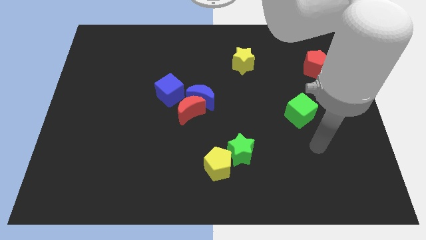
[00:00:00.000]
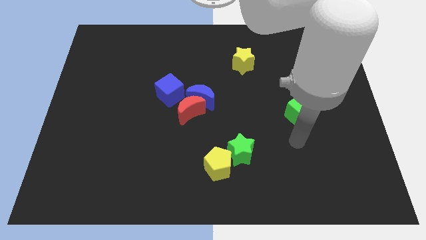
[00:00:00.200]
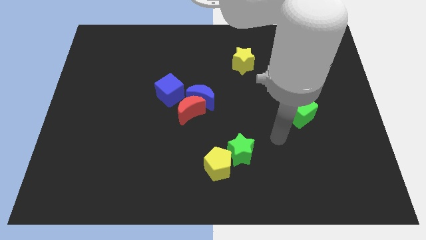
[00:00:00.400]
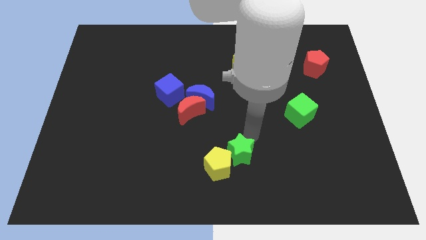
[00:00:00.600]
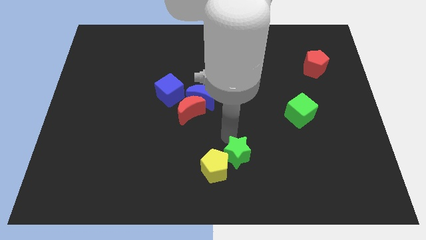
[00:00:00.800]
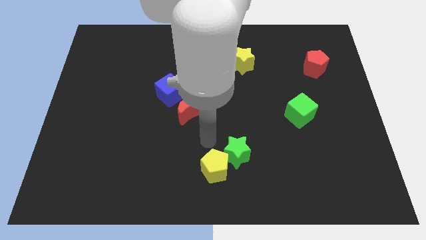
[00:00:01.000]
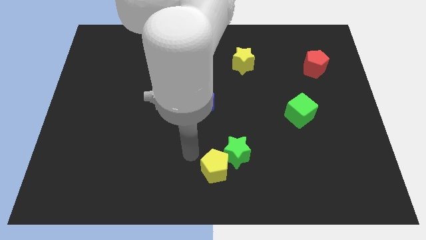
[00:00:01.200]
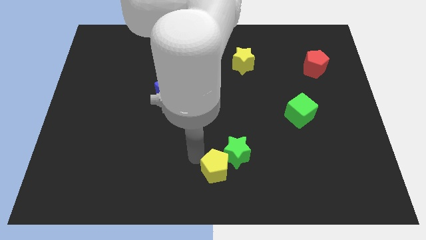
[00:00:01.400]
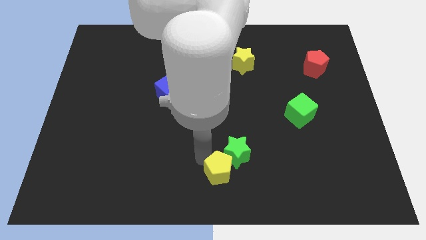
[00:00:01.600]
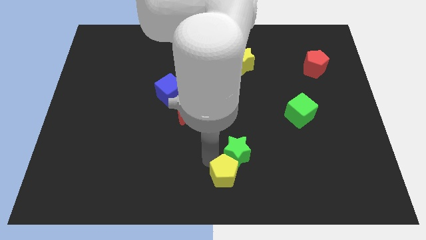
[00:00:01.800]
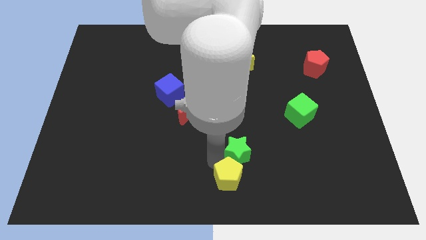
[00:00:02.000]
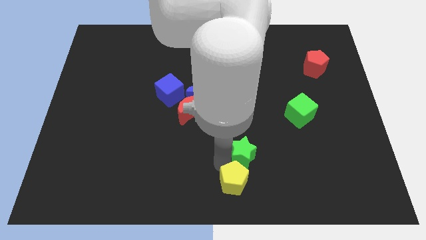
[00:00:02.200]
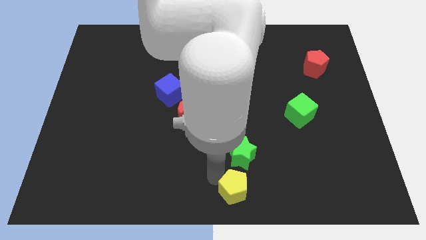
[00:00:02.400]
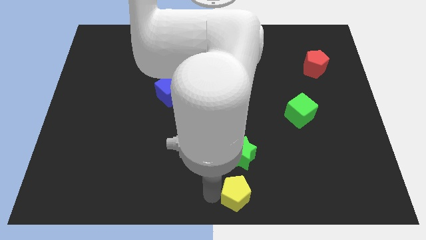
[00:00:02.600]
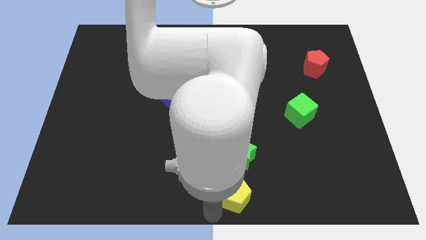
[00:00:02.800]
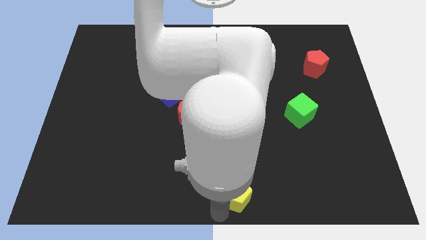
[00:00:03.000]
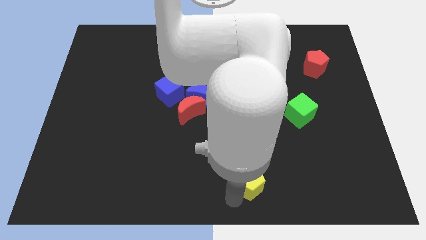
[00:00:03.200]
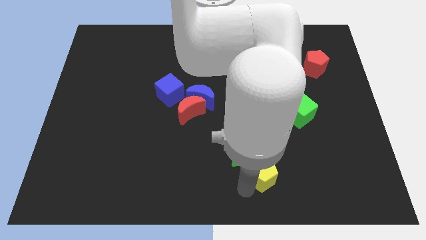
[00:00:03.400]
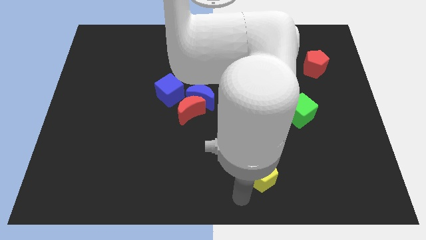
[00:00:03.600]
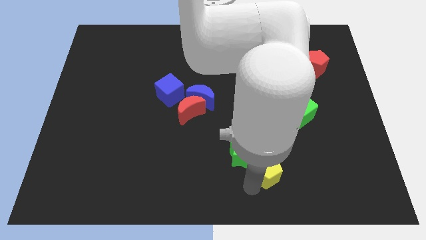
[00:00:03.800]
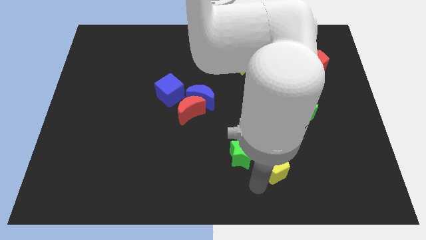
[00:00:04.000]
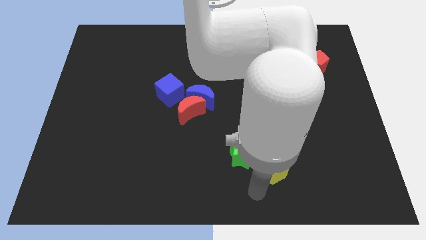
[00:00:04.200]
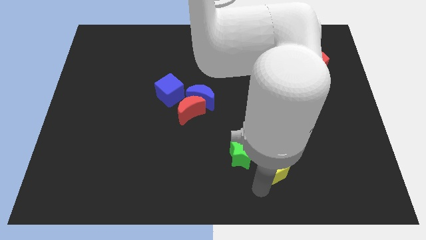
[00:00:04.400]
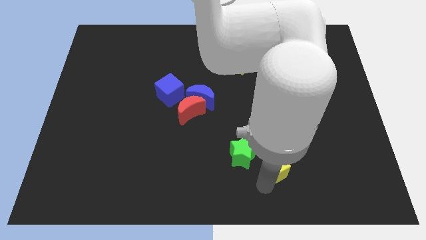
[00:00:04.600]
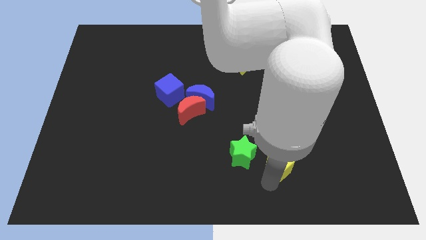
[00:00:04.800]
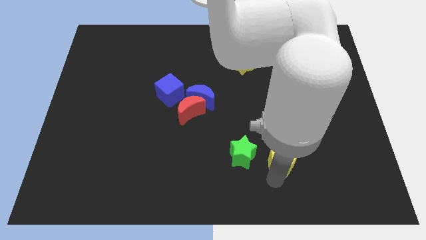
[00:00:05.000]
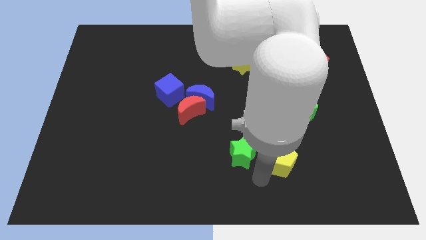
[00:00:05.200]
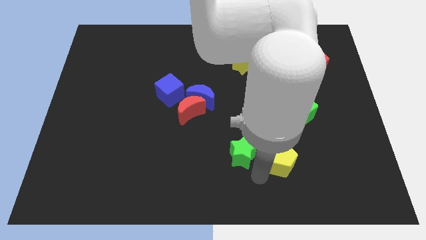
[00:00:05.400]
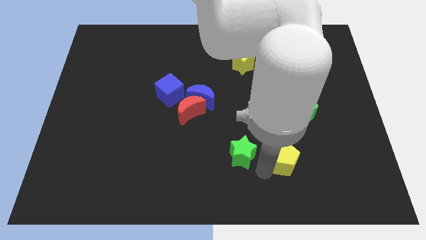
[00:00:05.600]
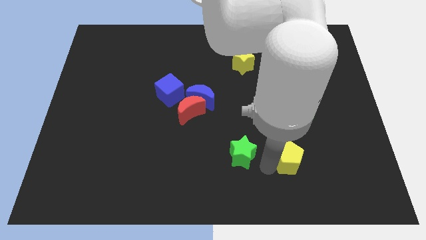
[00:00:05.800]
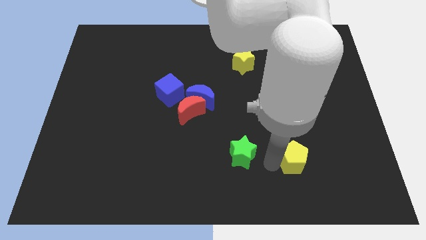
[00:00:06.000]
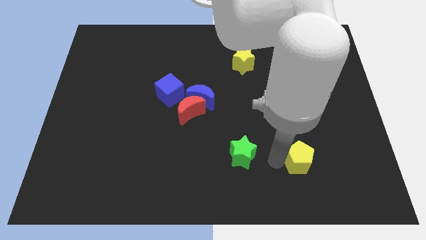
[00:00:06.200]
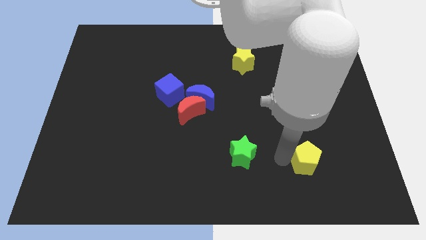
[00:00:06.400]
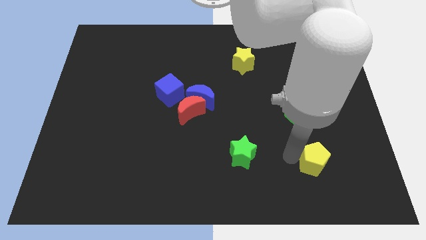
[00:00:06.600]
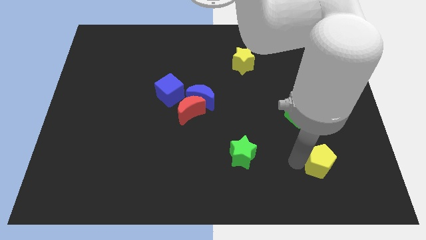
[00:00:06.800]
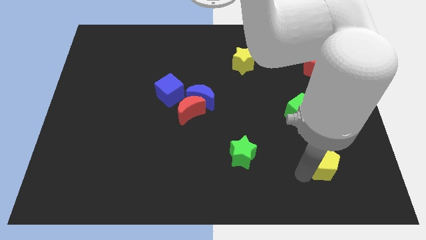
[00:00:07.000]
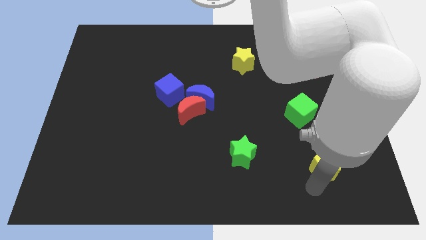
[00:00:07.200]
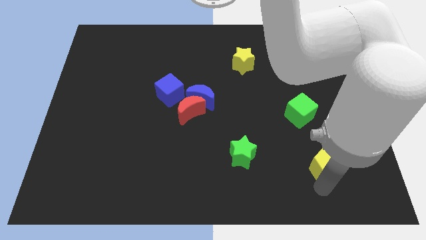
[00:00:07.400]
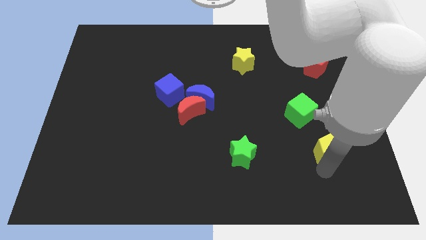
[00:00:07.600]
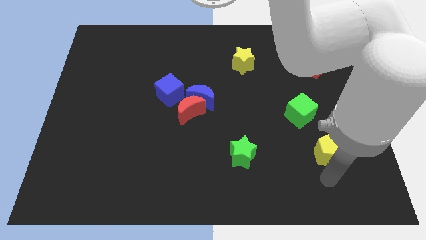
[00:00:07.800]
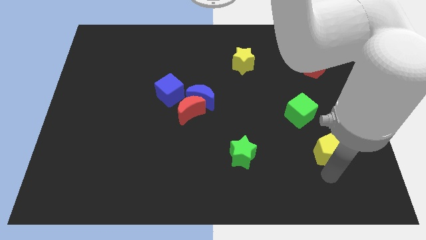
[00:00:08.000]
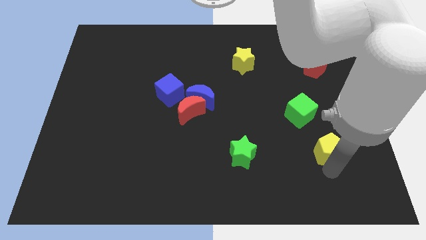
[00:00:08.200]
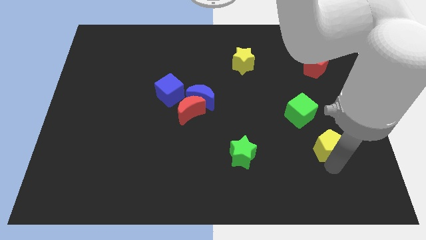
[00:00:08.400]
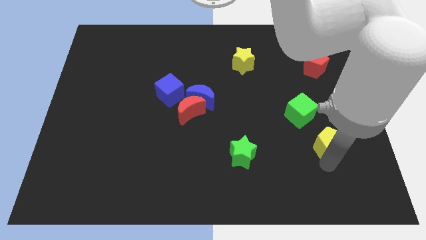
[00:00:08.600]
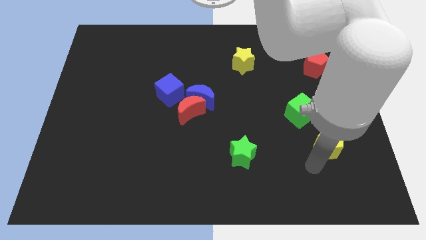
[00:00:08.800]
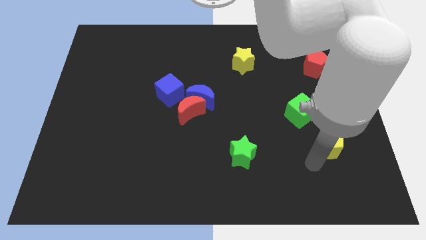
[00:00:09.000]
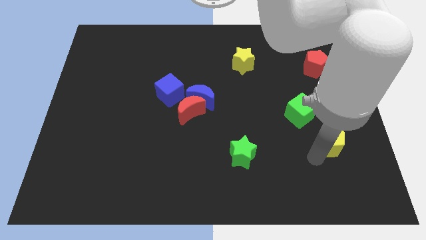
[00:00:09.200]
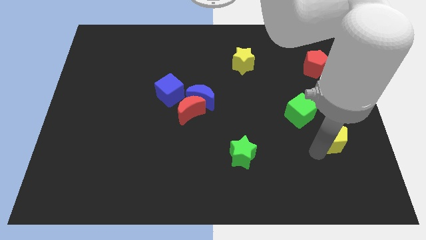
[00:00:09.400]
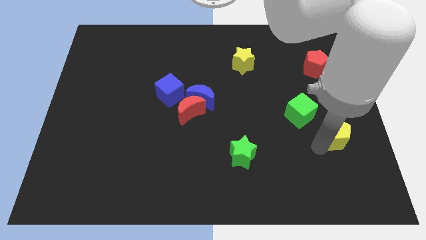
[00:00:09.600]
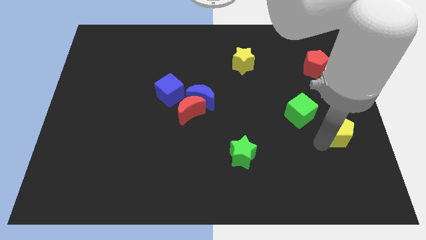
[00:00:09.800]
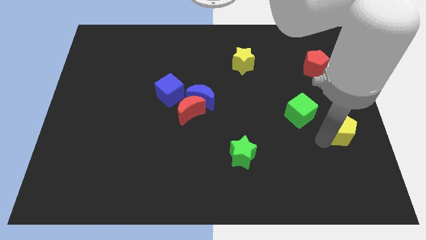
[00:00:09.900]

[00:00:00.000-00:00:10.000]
push the yellow pentagon to the center right

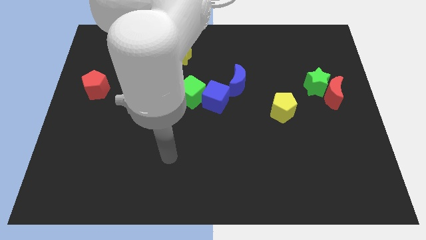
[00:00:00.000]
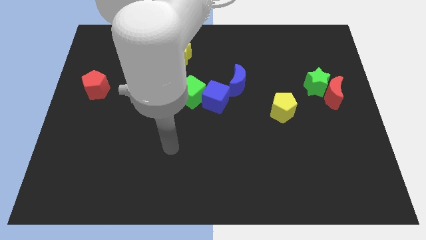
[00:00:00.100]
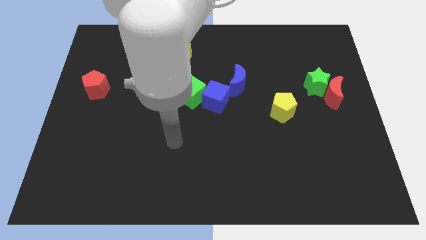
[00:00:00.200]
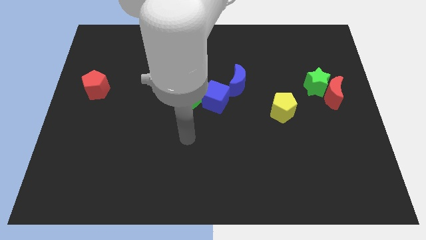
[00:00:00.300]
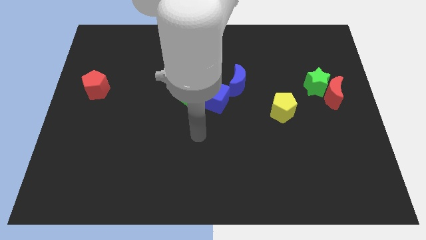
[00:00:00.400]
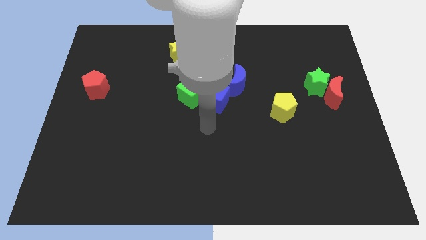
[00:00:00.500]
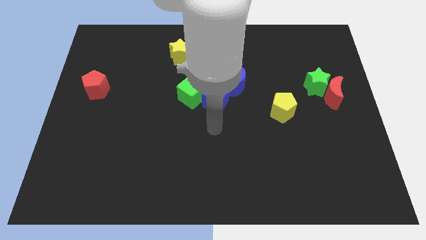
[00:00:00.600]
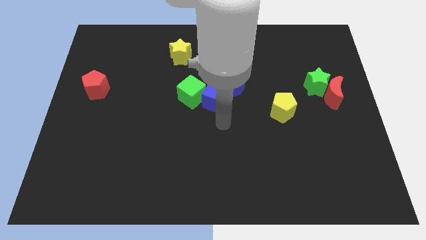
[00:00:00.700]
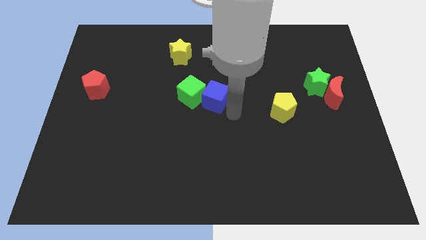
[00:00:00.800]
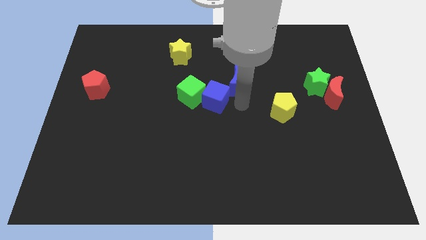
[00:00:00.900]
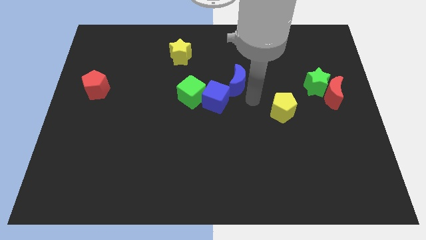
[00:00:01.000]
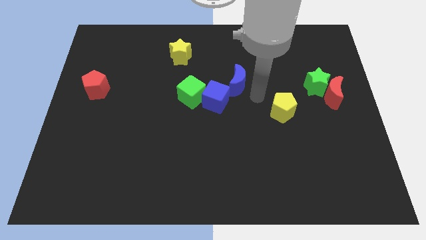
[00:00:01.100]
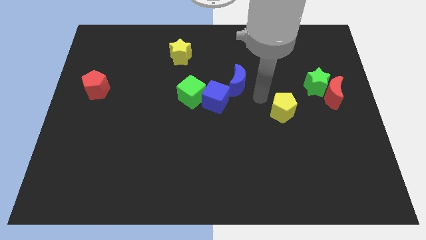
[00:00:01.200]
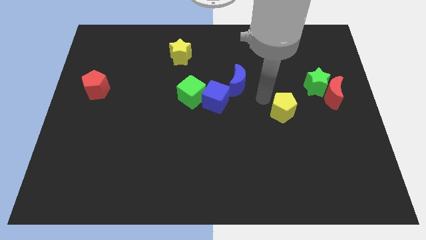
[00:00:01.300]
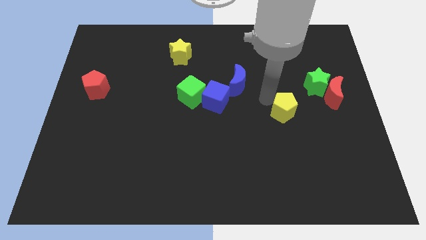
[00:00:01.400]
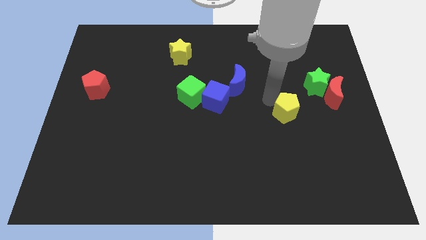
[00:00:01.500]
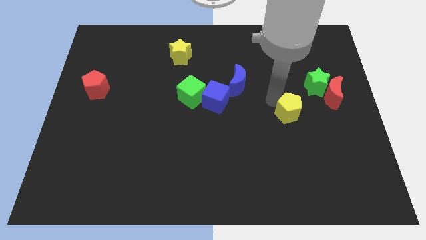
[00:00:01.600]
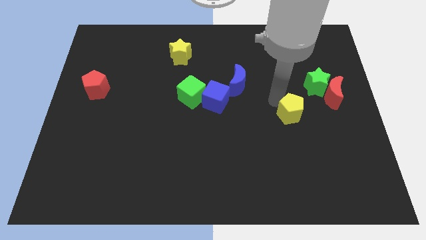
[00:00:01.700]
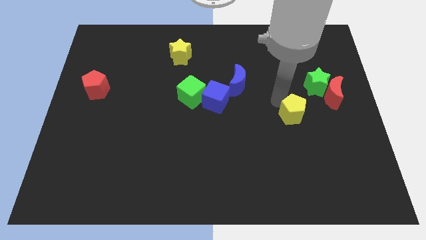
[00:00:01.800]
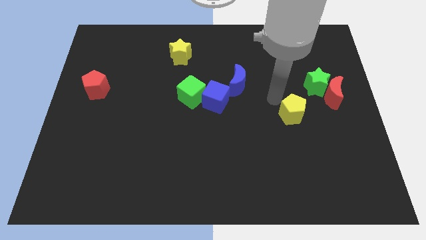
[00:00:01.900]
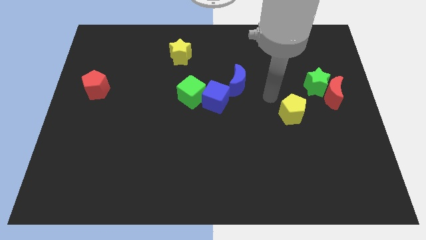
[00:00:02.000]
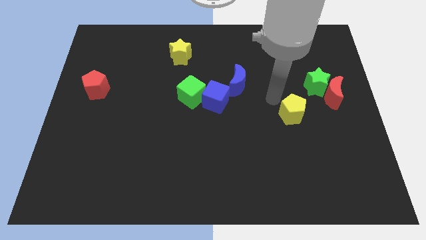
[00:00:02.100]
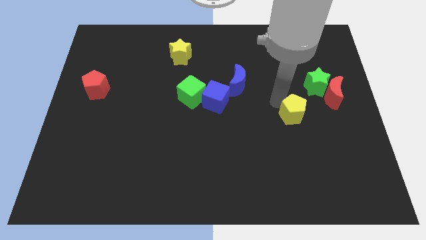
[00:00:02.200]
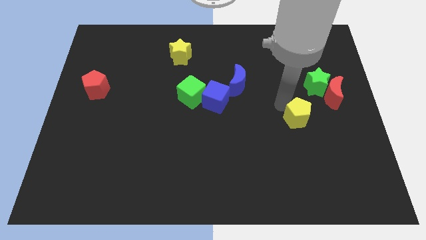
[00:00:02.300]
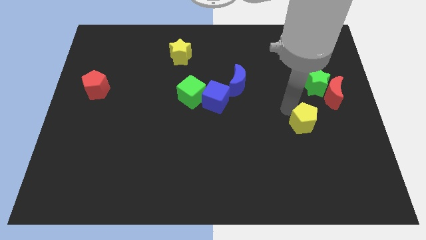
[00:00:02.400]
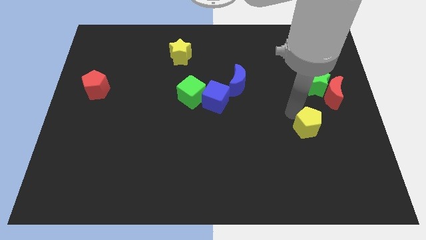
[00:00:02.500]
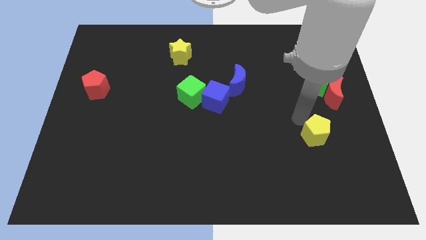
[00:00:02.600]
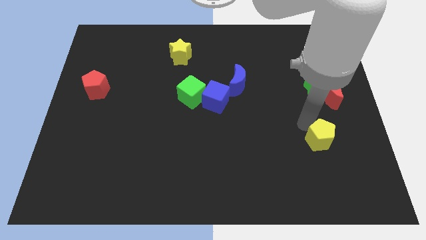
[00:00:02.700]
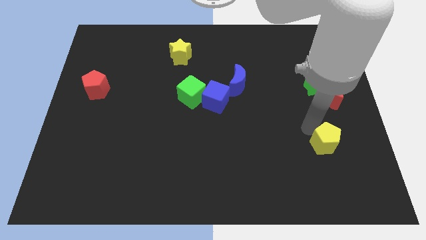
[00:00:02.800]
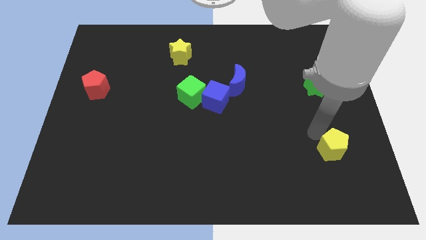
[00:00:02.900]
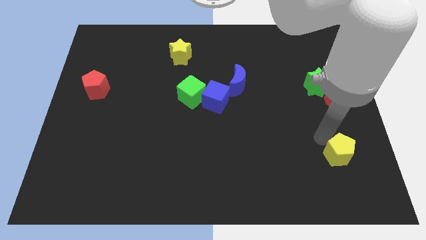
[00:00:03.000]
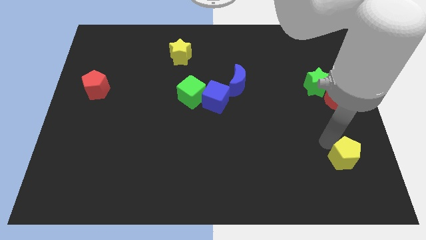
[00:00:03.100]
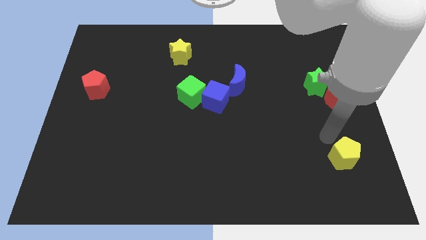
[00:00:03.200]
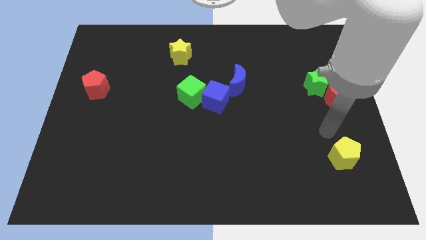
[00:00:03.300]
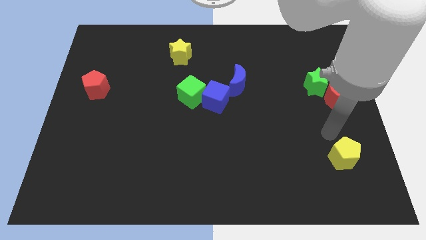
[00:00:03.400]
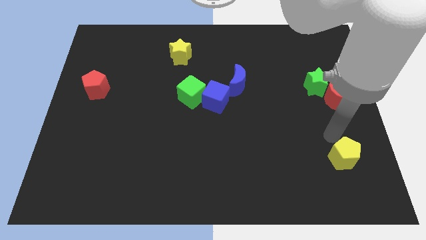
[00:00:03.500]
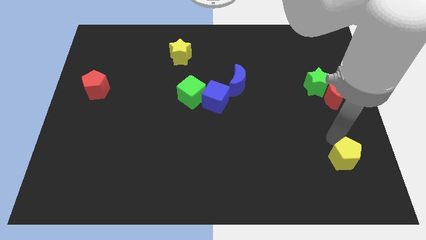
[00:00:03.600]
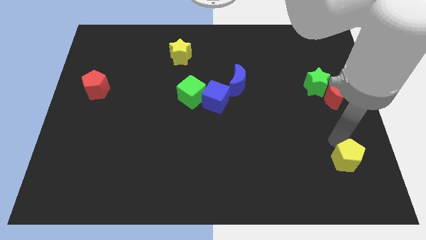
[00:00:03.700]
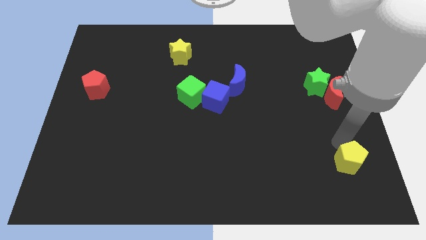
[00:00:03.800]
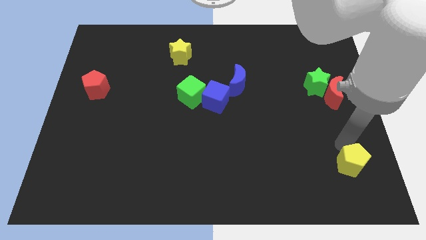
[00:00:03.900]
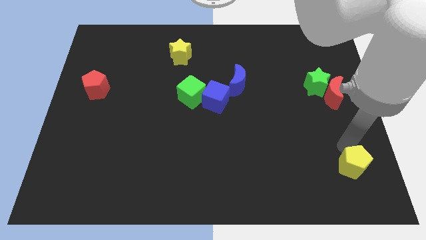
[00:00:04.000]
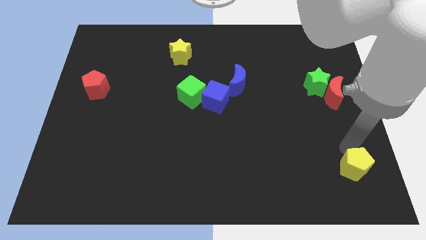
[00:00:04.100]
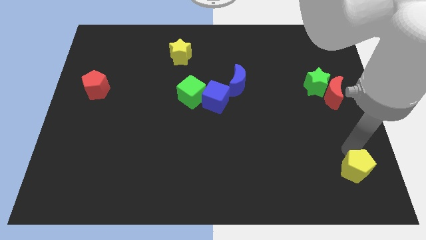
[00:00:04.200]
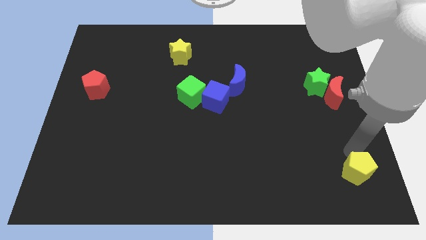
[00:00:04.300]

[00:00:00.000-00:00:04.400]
slide the yellow pentagon to the bottom right of the board
